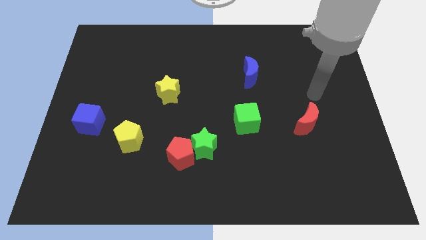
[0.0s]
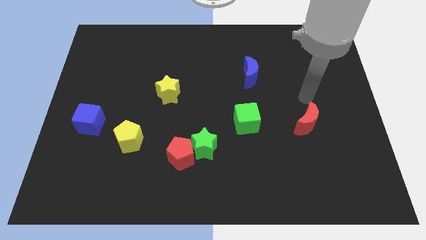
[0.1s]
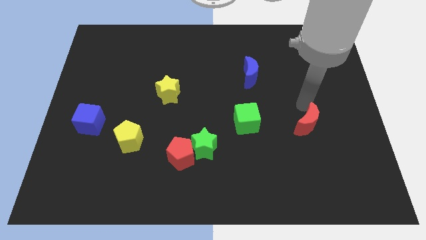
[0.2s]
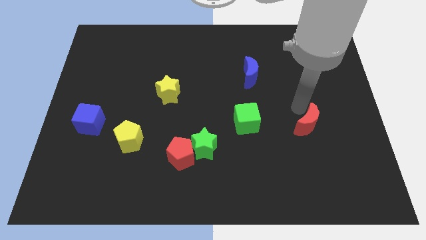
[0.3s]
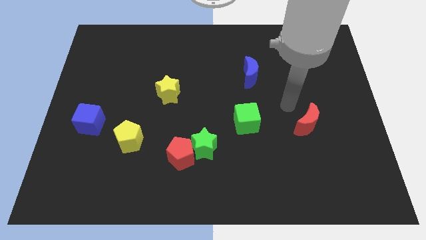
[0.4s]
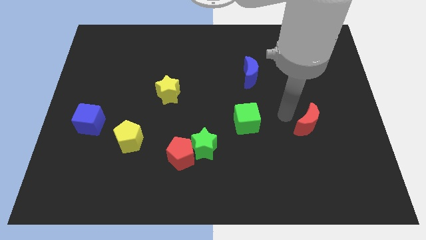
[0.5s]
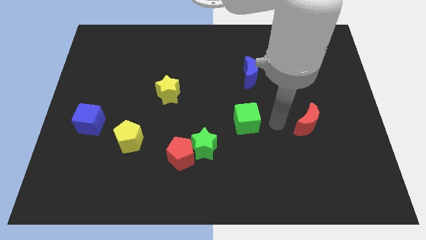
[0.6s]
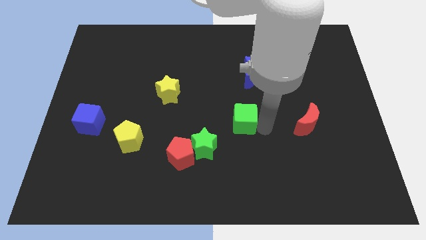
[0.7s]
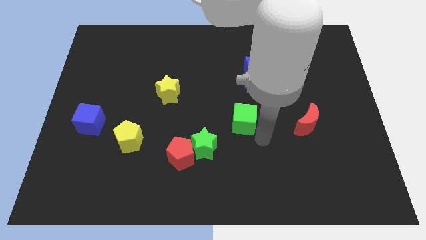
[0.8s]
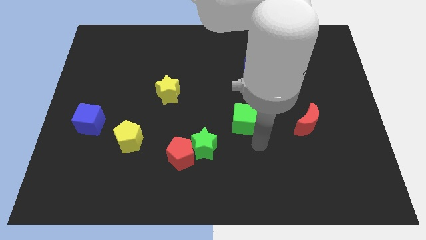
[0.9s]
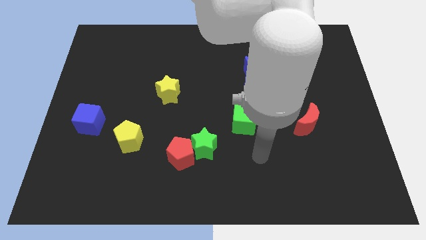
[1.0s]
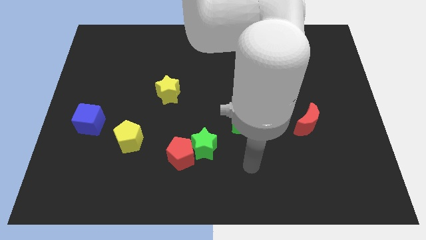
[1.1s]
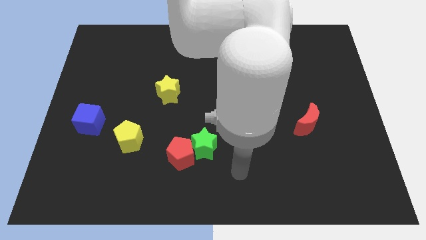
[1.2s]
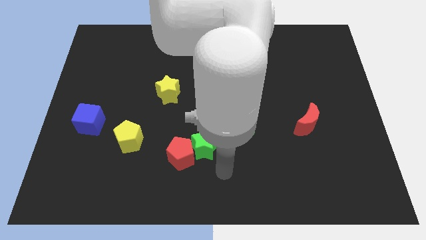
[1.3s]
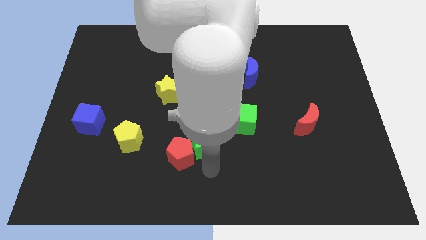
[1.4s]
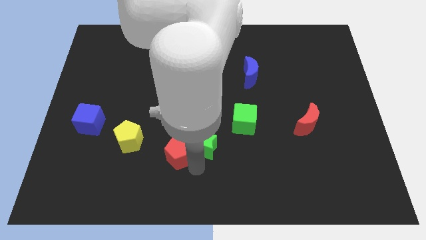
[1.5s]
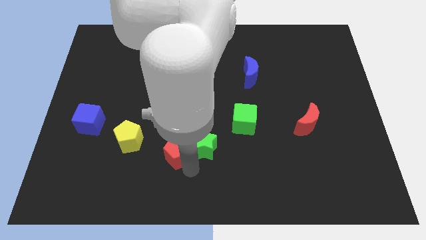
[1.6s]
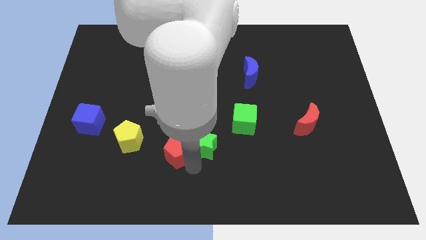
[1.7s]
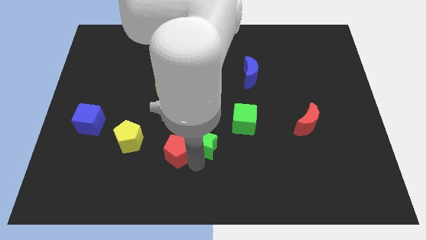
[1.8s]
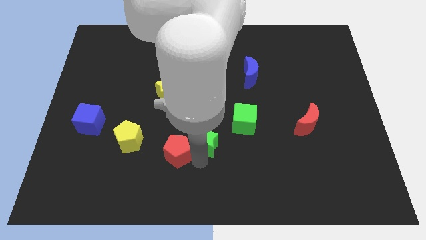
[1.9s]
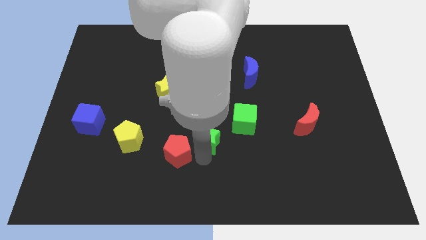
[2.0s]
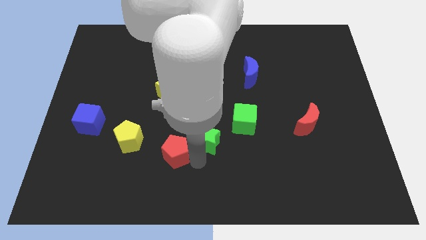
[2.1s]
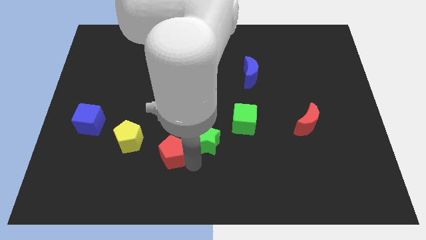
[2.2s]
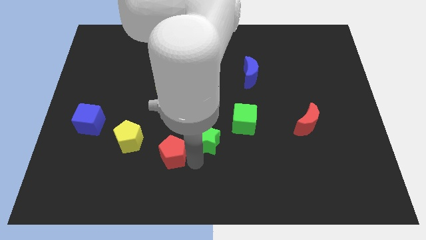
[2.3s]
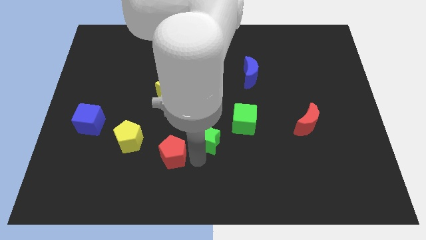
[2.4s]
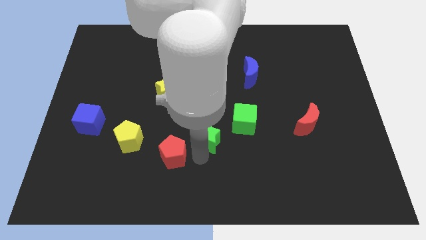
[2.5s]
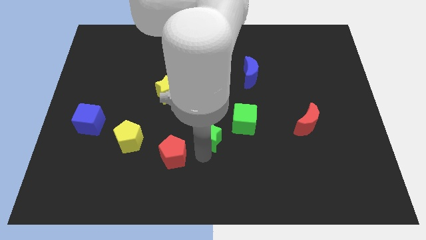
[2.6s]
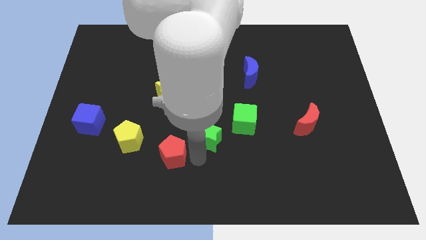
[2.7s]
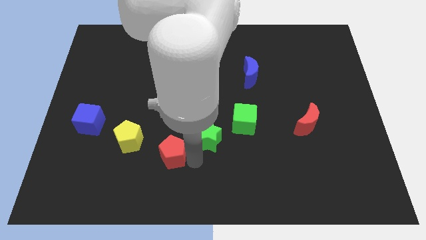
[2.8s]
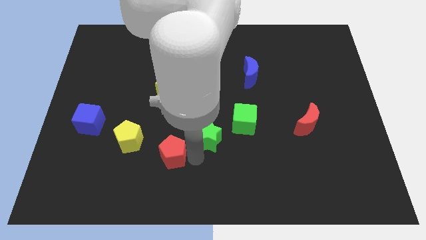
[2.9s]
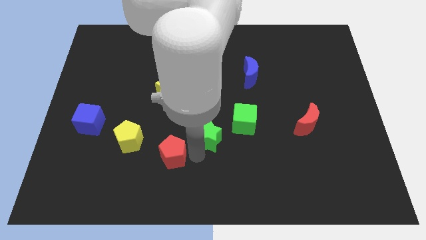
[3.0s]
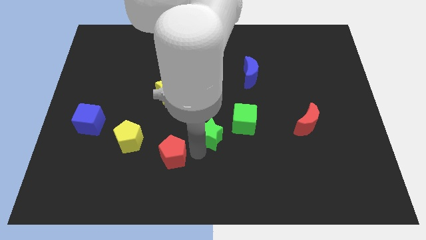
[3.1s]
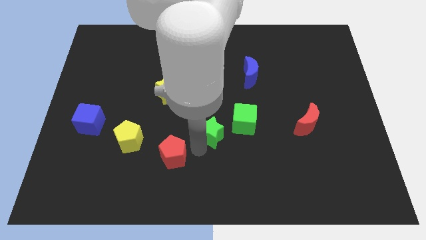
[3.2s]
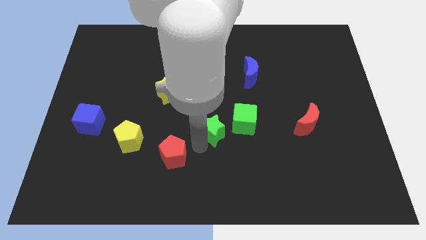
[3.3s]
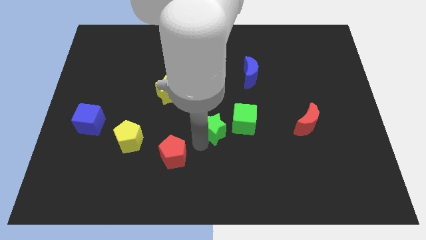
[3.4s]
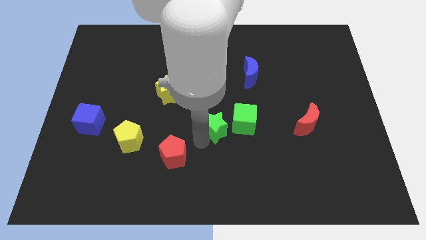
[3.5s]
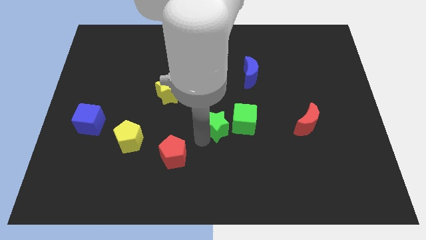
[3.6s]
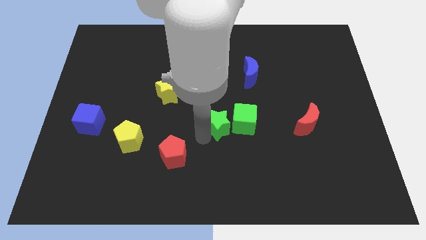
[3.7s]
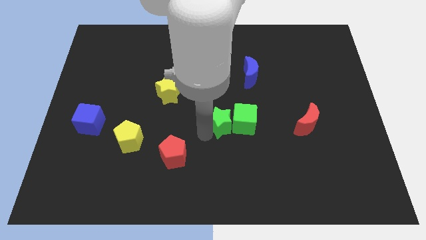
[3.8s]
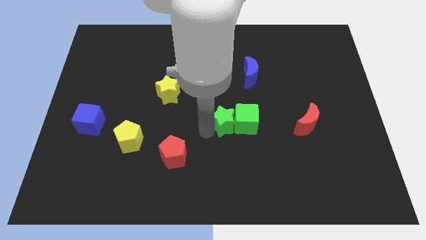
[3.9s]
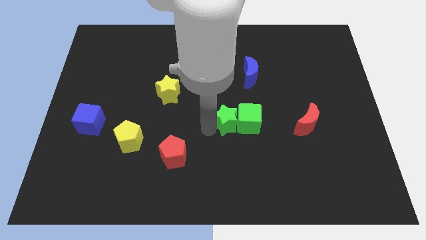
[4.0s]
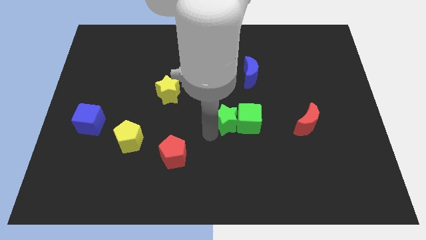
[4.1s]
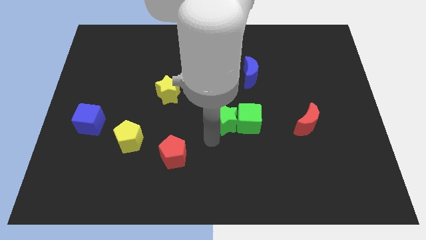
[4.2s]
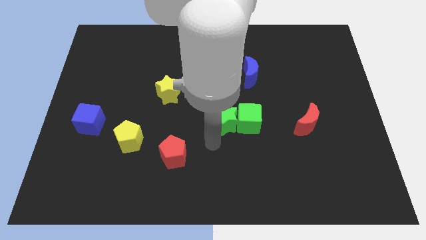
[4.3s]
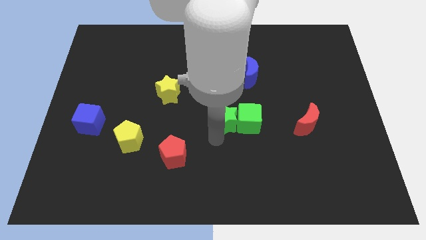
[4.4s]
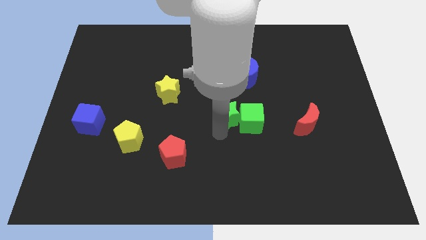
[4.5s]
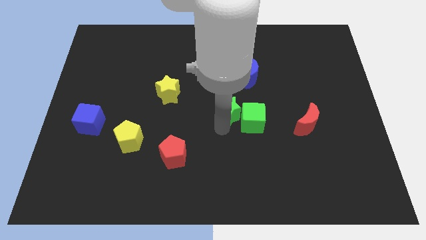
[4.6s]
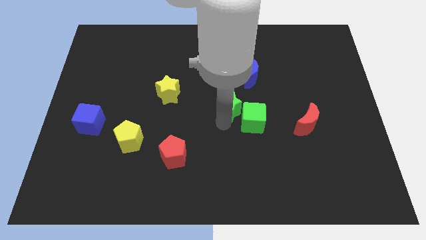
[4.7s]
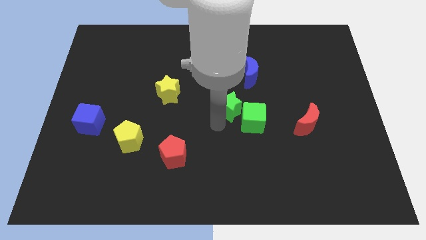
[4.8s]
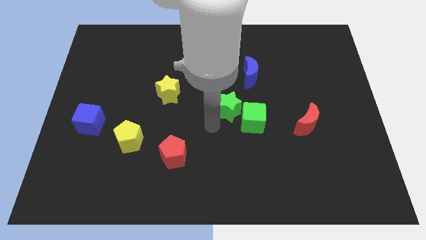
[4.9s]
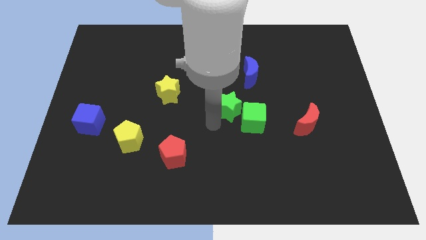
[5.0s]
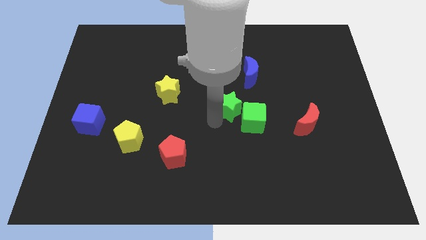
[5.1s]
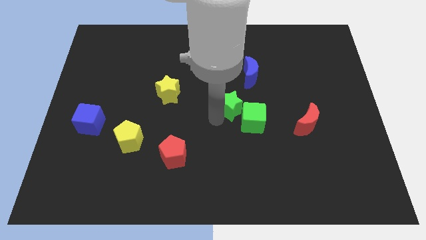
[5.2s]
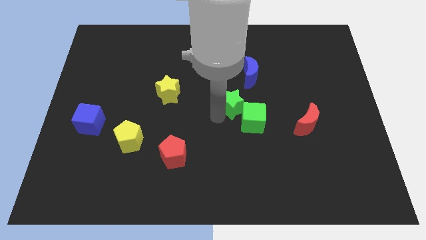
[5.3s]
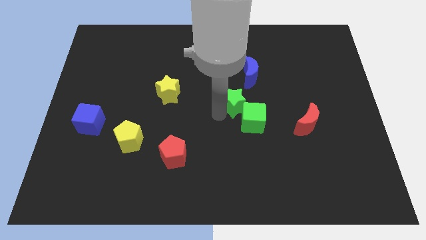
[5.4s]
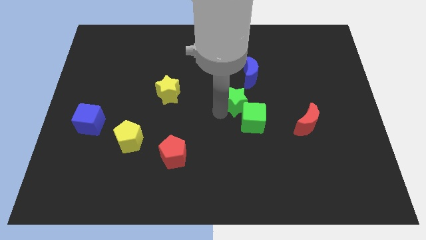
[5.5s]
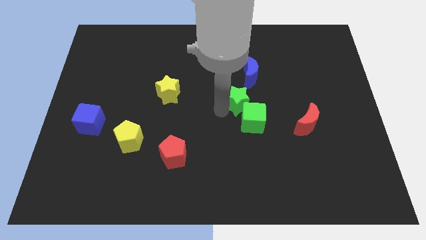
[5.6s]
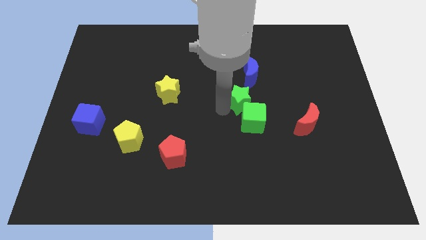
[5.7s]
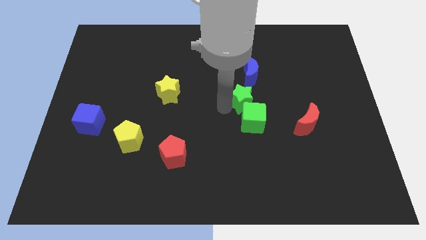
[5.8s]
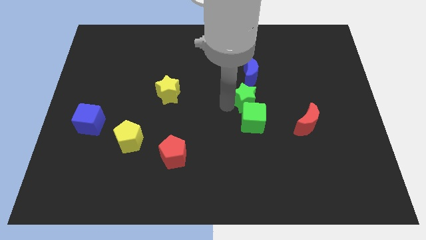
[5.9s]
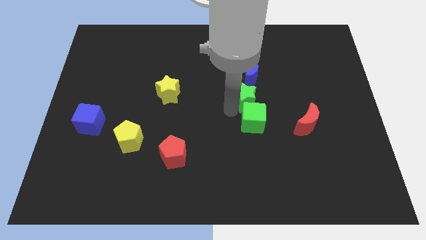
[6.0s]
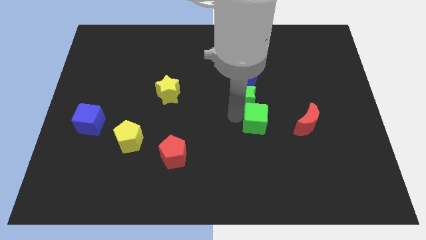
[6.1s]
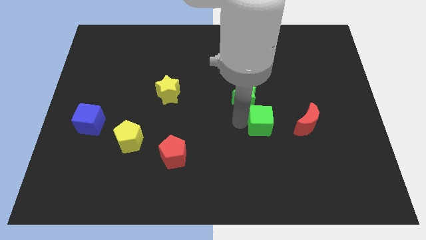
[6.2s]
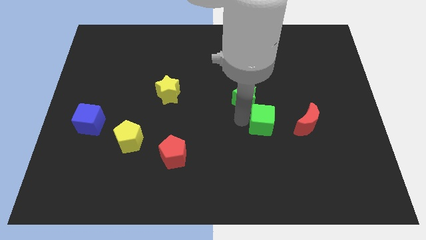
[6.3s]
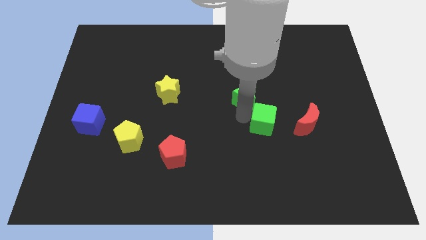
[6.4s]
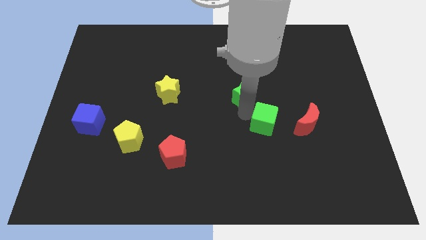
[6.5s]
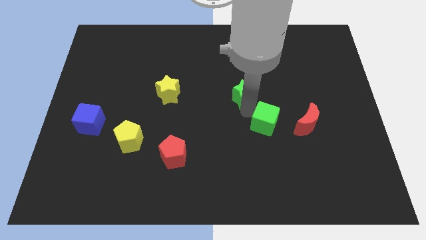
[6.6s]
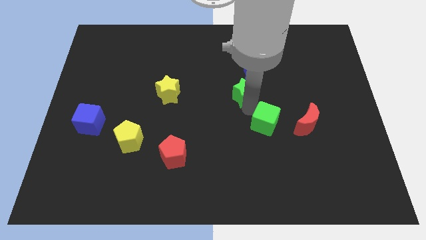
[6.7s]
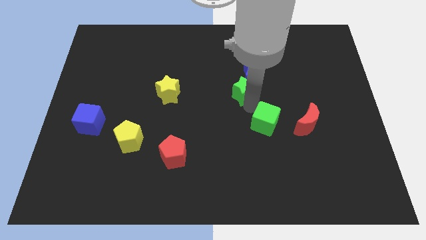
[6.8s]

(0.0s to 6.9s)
move the green star to the blue moon
